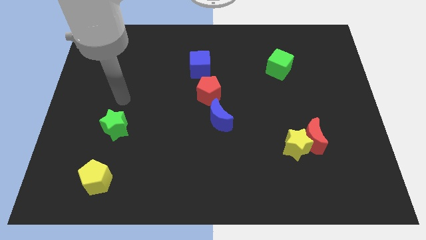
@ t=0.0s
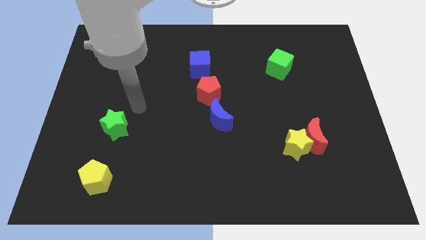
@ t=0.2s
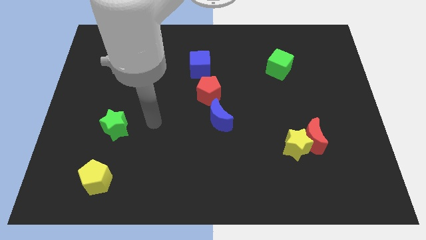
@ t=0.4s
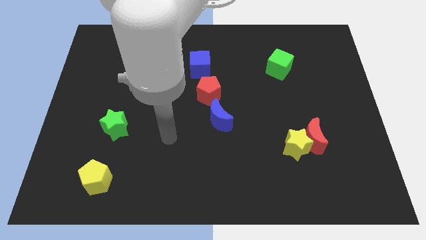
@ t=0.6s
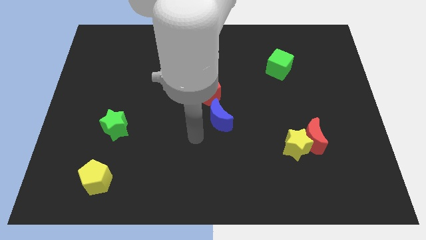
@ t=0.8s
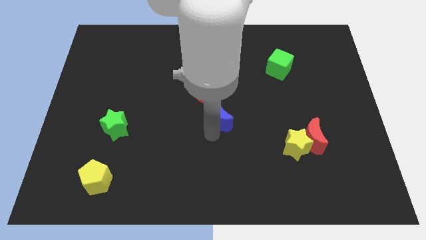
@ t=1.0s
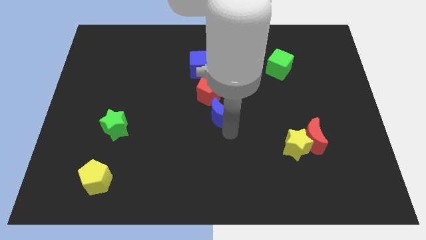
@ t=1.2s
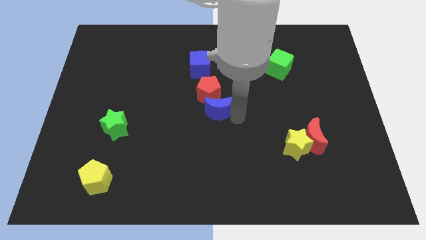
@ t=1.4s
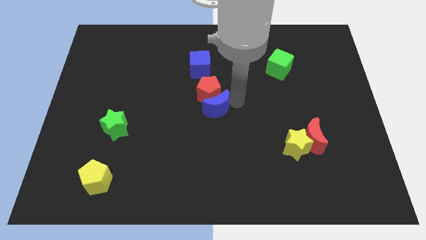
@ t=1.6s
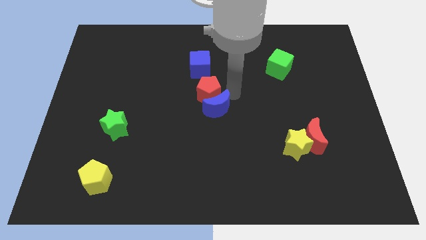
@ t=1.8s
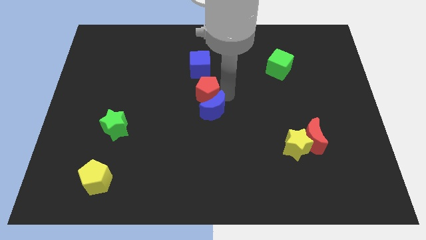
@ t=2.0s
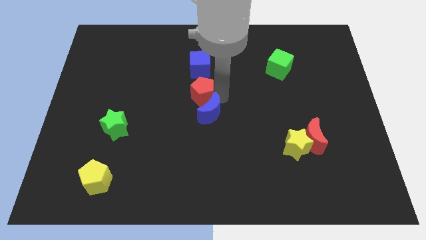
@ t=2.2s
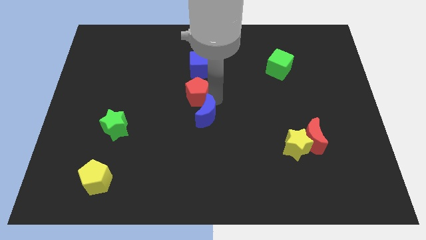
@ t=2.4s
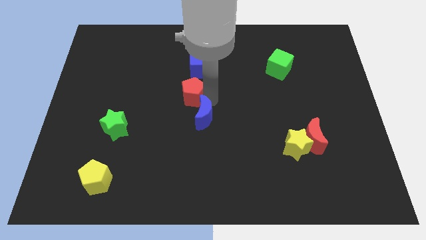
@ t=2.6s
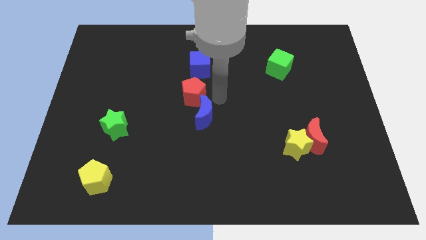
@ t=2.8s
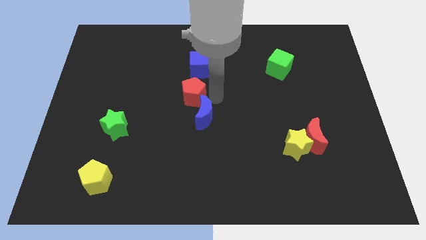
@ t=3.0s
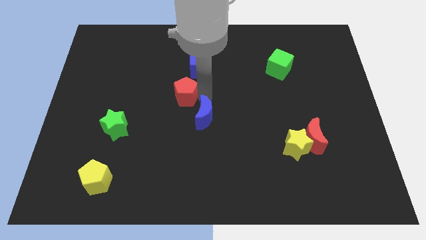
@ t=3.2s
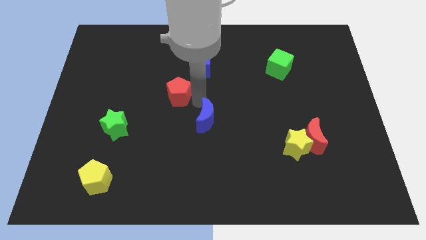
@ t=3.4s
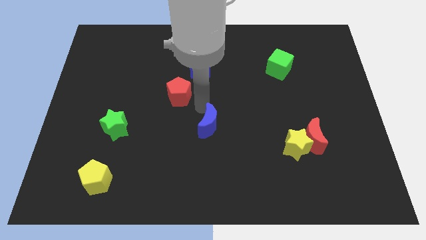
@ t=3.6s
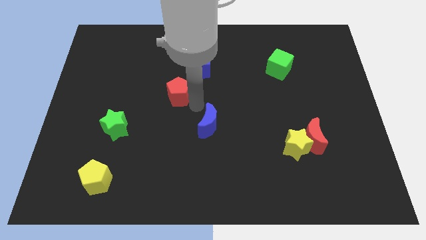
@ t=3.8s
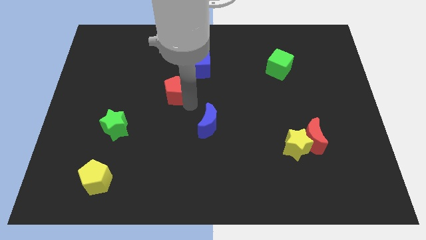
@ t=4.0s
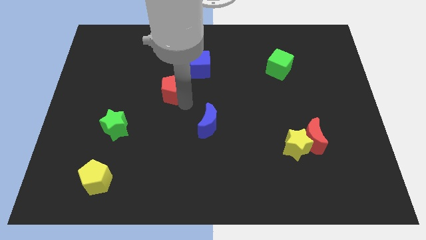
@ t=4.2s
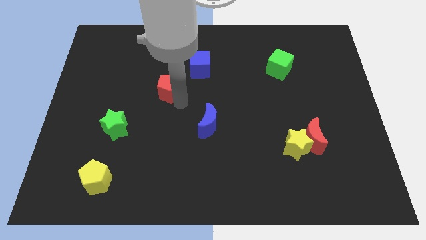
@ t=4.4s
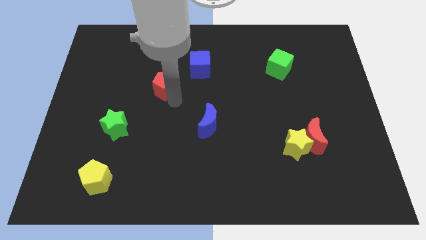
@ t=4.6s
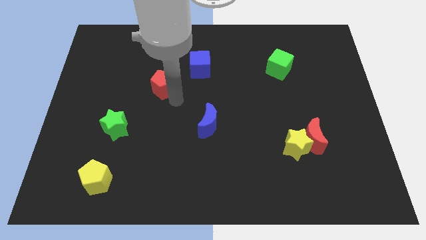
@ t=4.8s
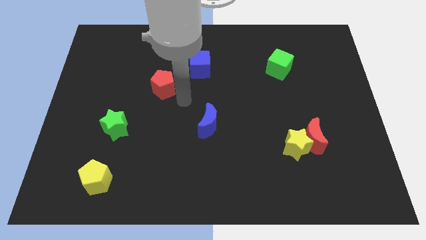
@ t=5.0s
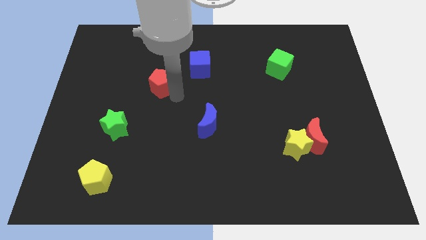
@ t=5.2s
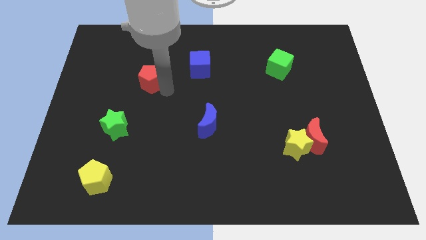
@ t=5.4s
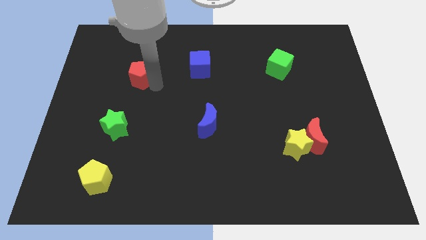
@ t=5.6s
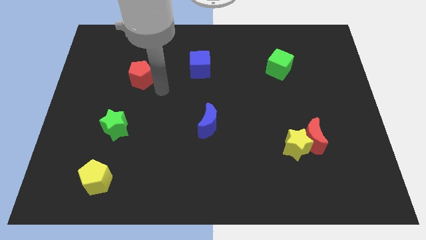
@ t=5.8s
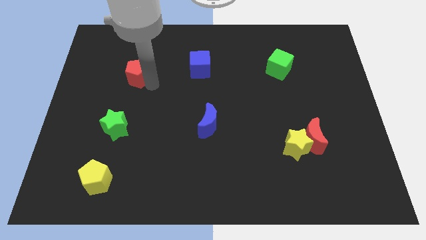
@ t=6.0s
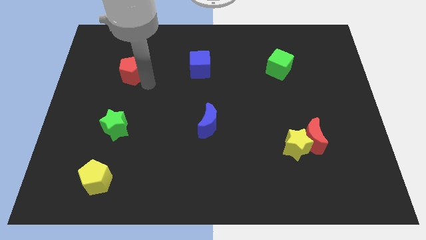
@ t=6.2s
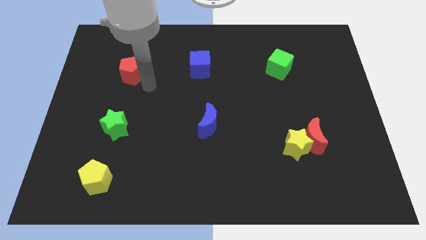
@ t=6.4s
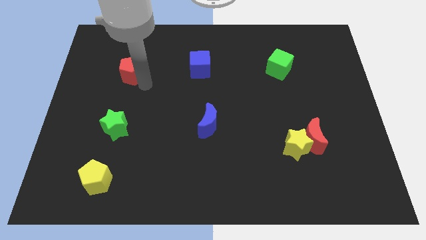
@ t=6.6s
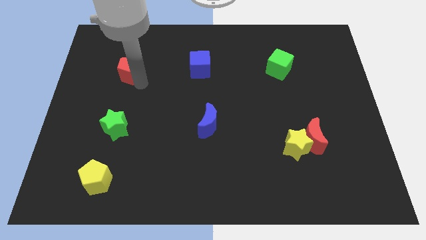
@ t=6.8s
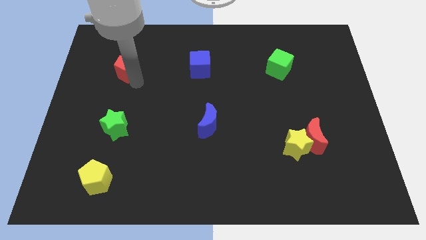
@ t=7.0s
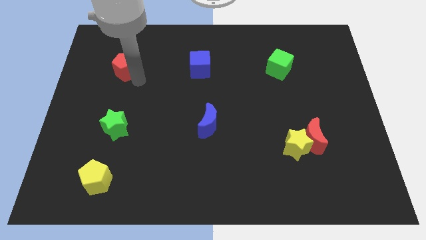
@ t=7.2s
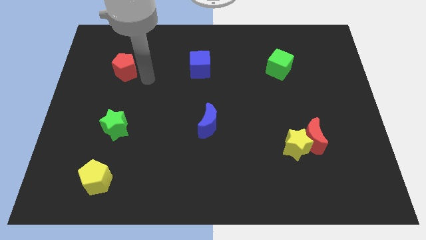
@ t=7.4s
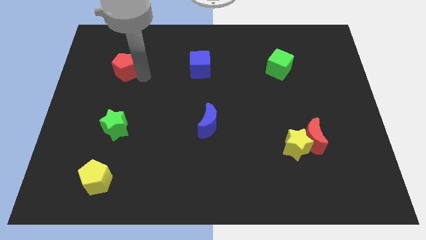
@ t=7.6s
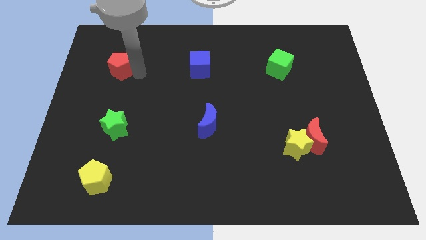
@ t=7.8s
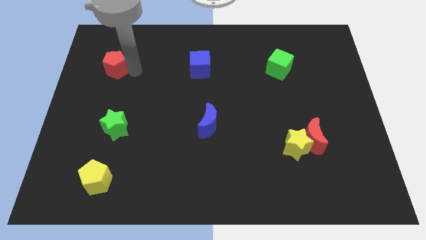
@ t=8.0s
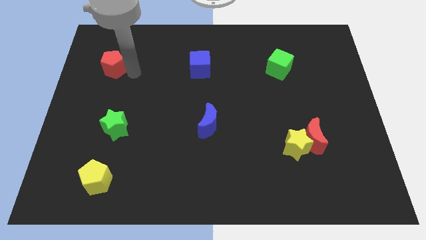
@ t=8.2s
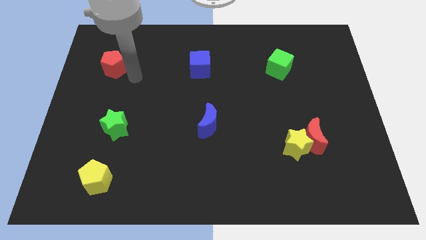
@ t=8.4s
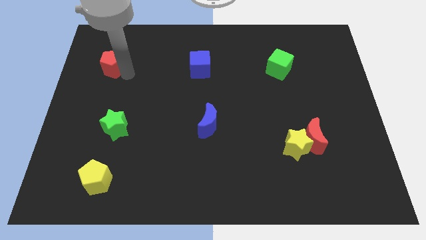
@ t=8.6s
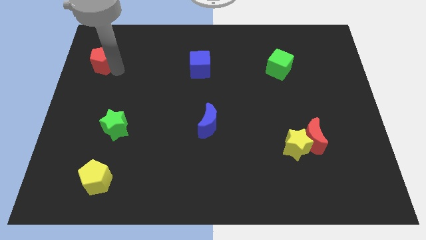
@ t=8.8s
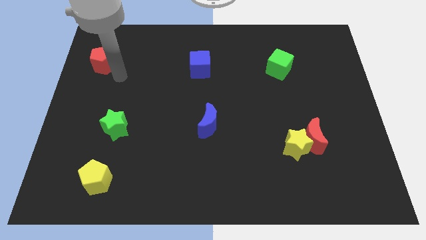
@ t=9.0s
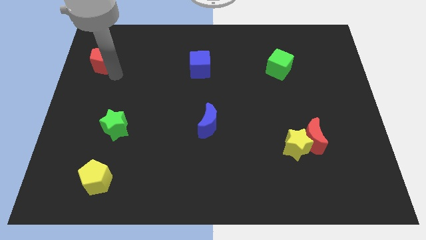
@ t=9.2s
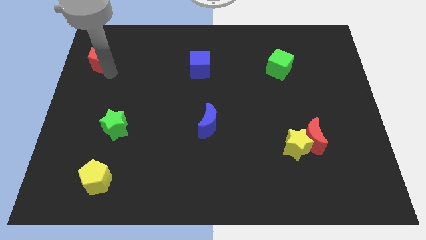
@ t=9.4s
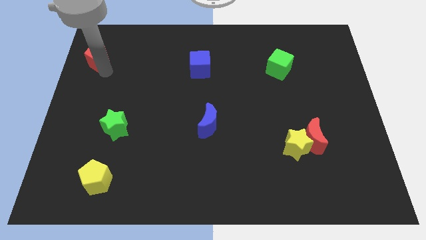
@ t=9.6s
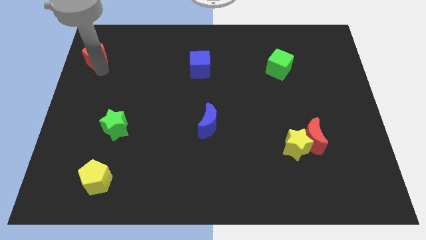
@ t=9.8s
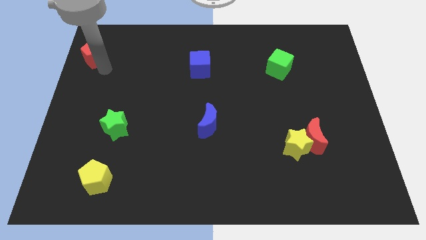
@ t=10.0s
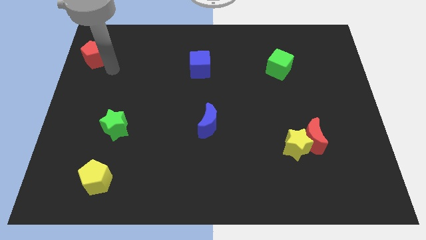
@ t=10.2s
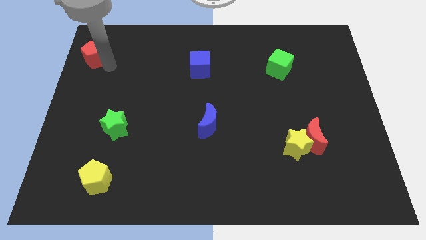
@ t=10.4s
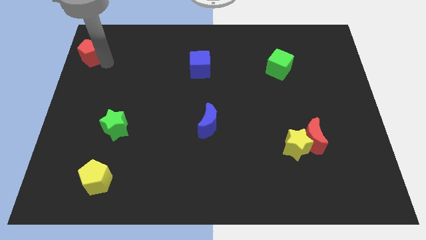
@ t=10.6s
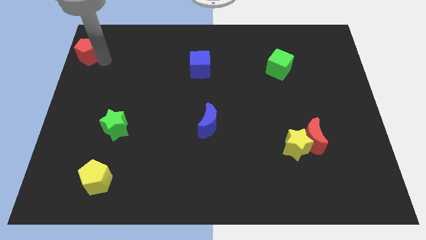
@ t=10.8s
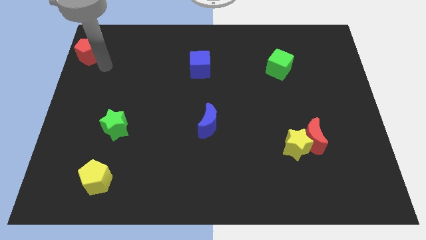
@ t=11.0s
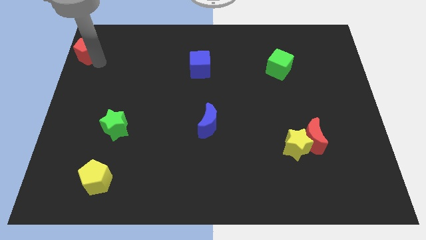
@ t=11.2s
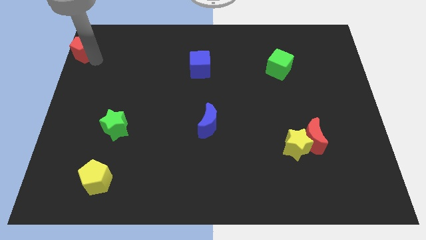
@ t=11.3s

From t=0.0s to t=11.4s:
move the red pentagon to the upper left corner

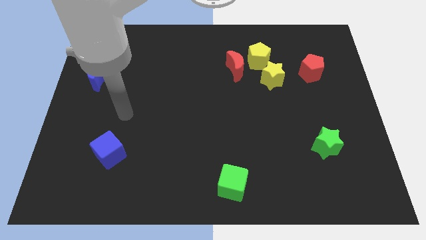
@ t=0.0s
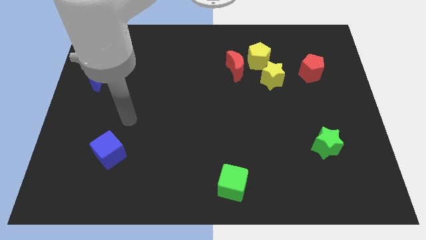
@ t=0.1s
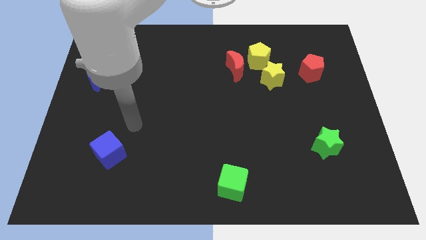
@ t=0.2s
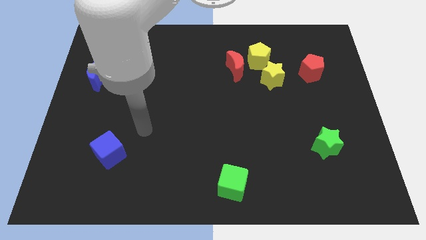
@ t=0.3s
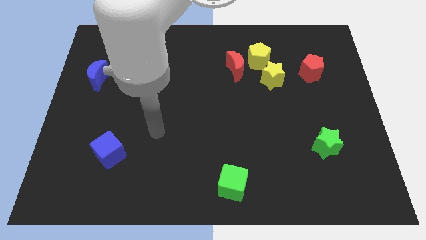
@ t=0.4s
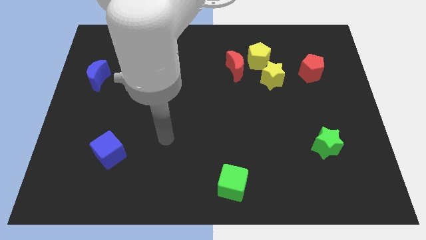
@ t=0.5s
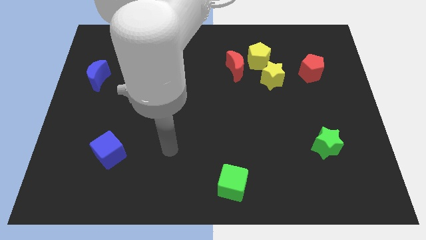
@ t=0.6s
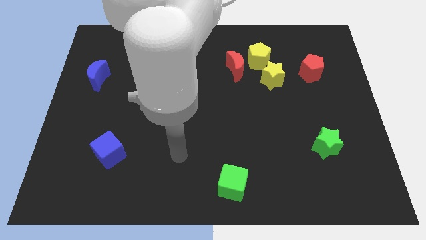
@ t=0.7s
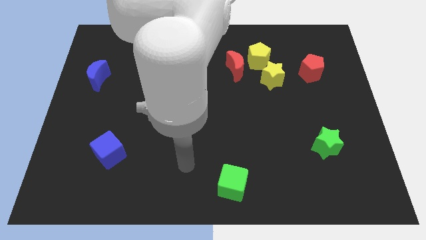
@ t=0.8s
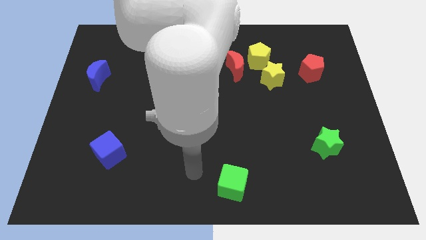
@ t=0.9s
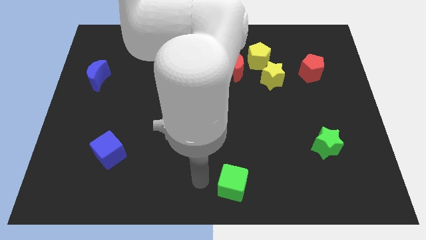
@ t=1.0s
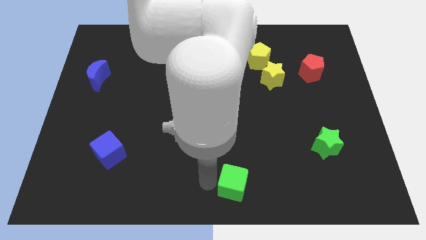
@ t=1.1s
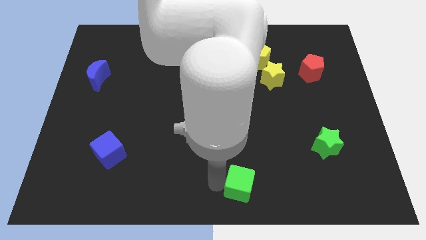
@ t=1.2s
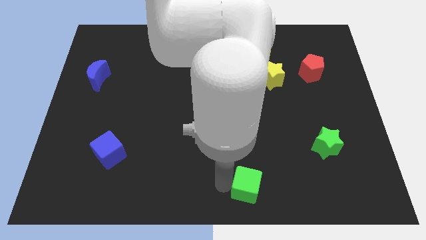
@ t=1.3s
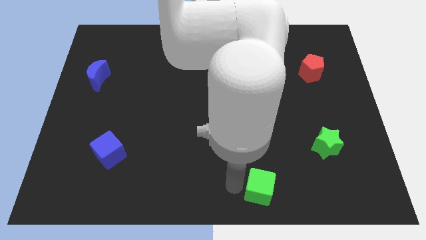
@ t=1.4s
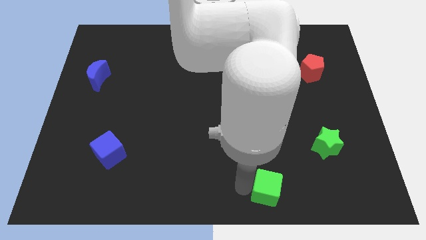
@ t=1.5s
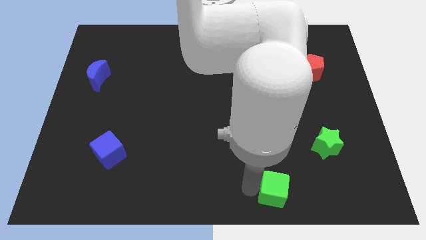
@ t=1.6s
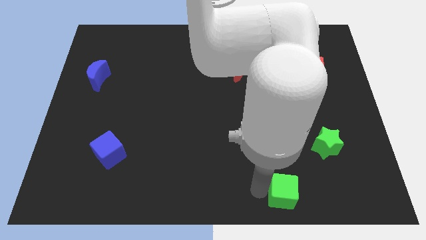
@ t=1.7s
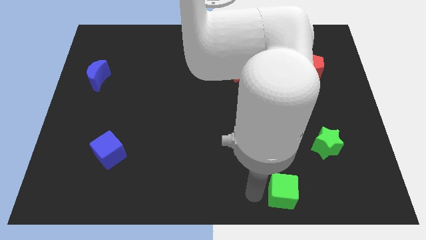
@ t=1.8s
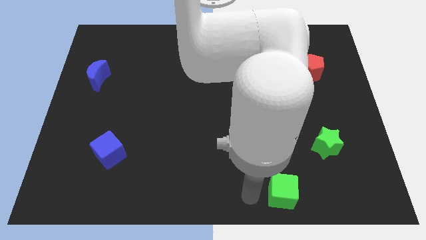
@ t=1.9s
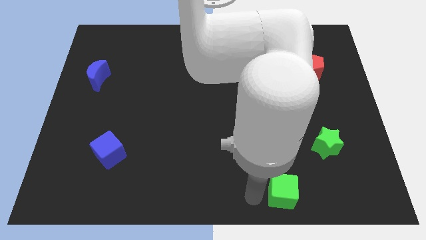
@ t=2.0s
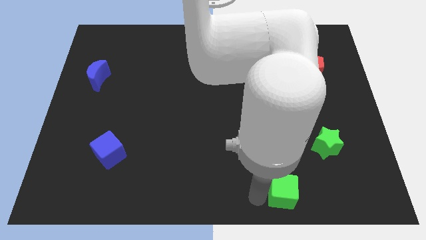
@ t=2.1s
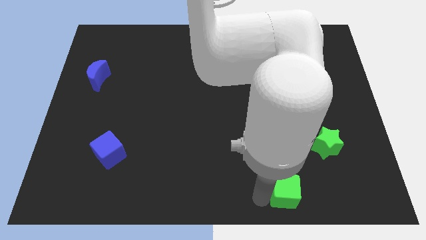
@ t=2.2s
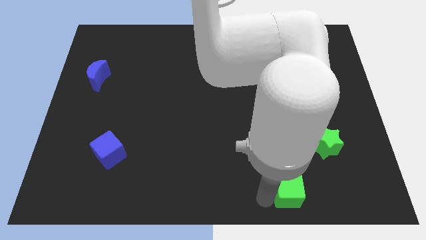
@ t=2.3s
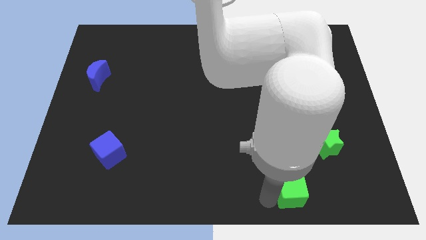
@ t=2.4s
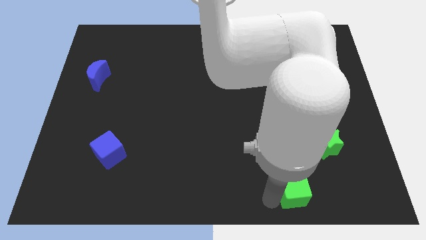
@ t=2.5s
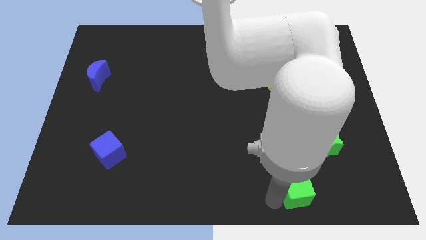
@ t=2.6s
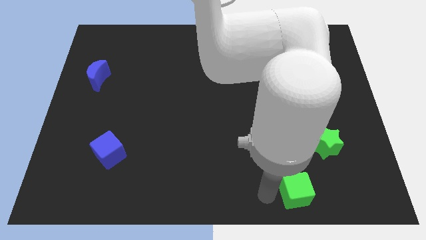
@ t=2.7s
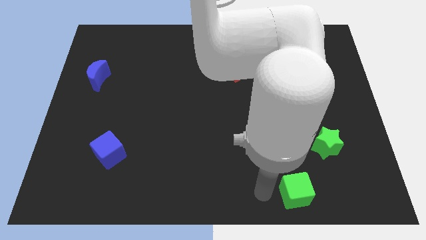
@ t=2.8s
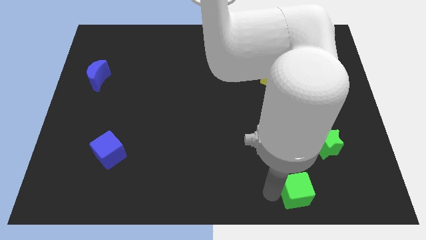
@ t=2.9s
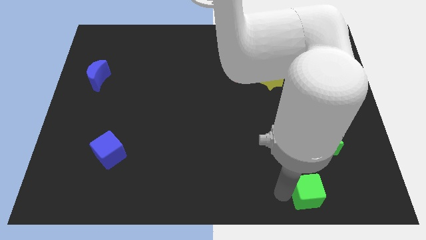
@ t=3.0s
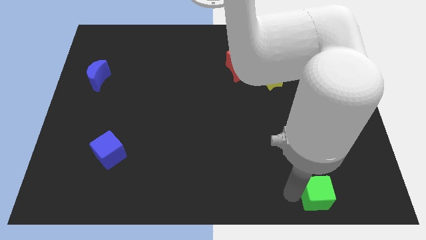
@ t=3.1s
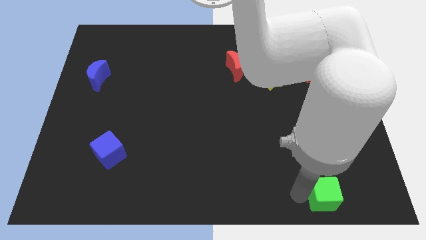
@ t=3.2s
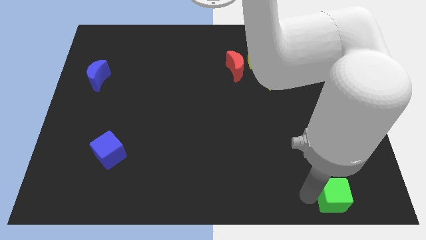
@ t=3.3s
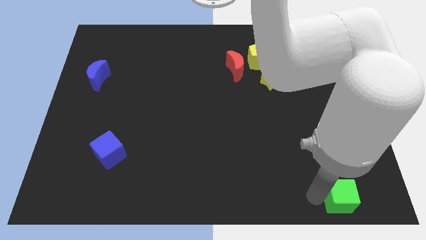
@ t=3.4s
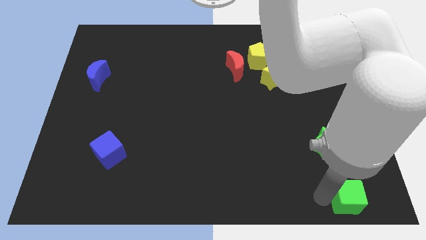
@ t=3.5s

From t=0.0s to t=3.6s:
slide the green cube to the lower right corner
